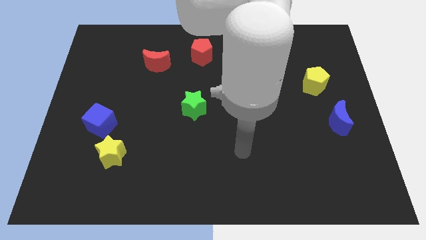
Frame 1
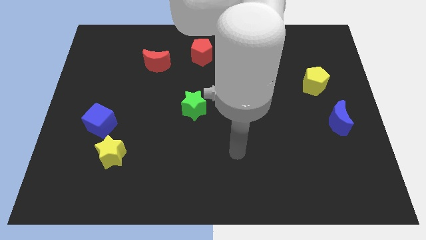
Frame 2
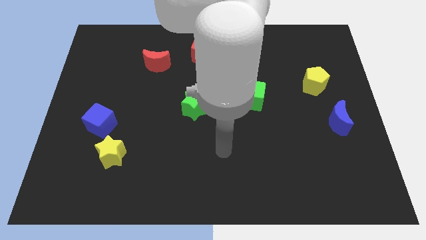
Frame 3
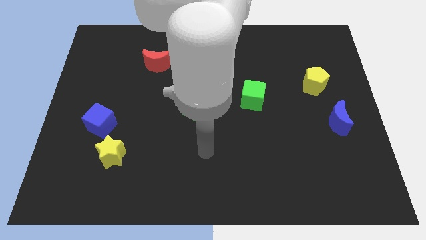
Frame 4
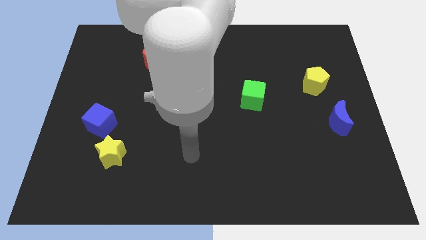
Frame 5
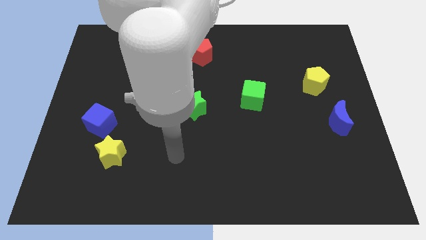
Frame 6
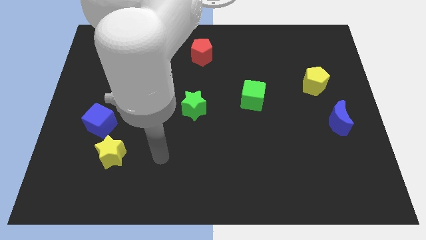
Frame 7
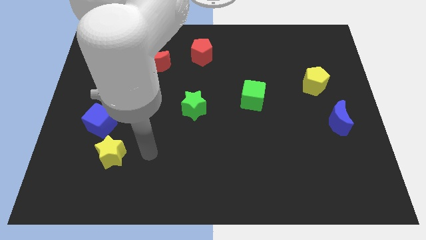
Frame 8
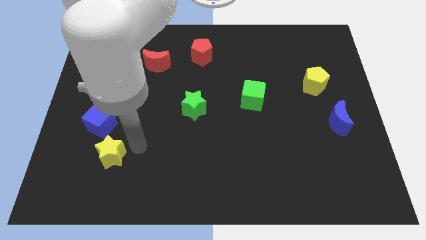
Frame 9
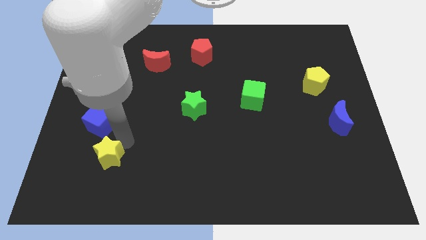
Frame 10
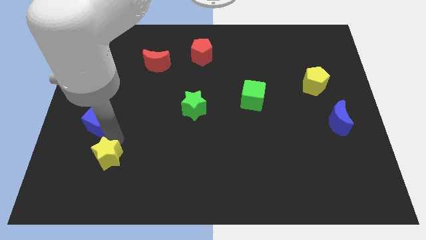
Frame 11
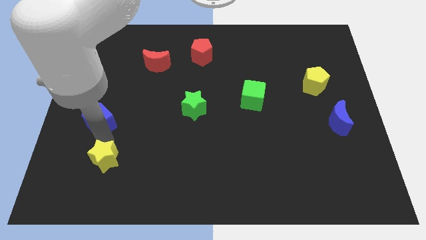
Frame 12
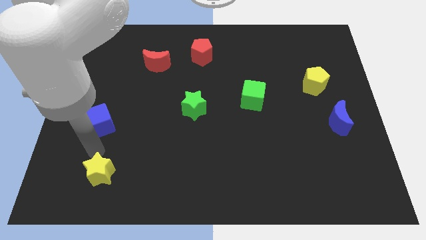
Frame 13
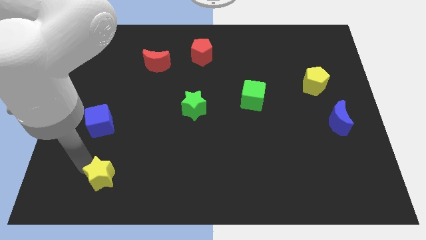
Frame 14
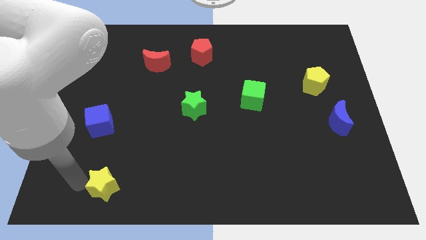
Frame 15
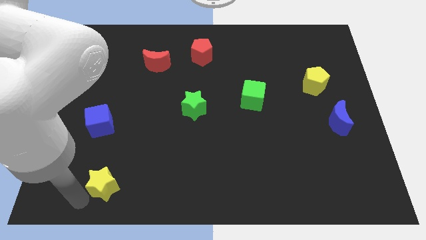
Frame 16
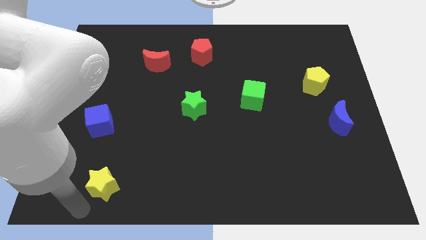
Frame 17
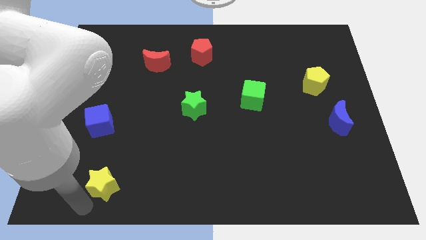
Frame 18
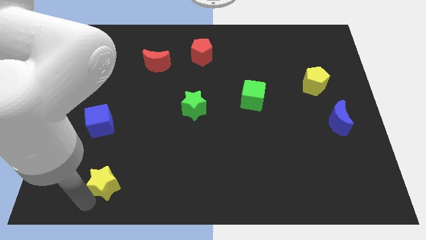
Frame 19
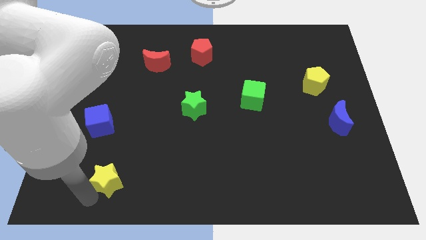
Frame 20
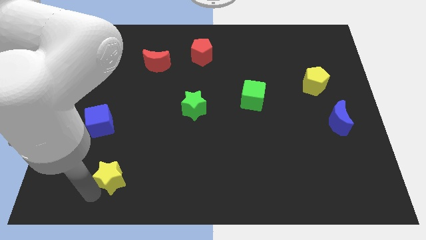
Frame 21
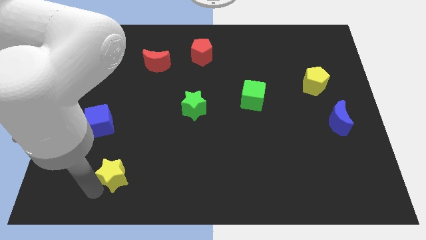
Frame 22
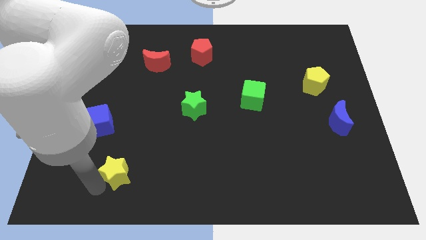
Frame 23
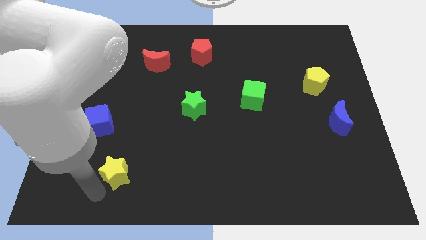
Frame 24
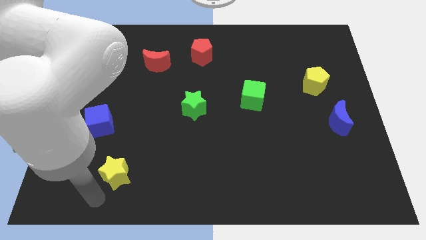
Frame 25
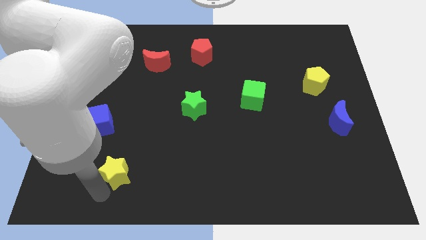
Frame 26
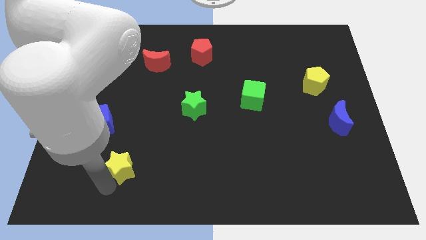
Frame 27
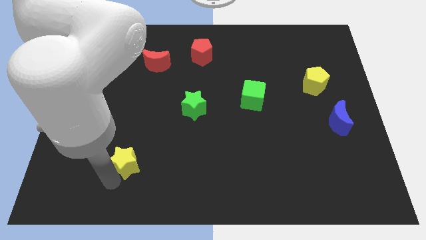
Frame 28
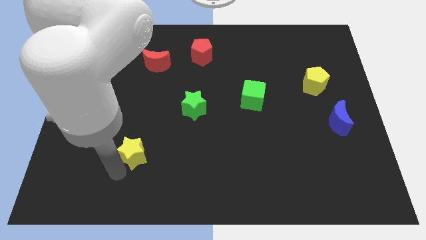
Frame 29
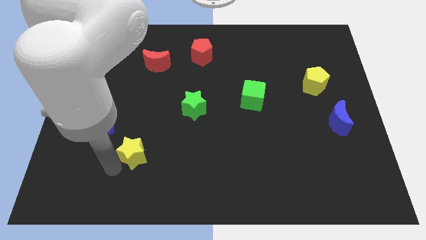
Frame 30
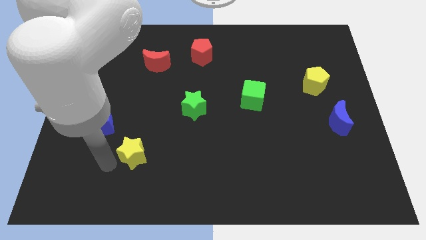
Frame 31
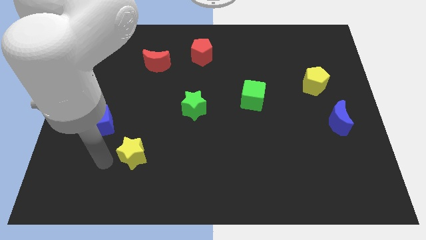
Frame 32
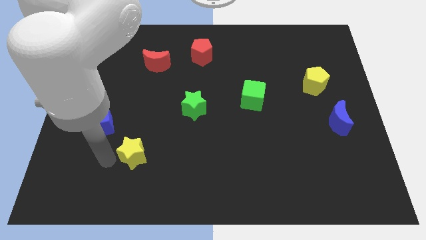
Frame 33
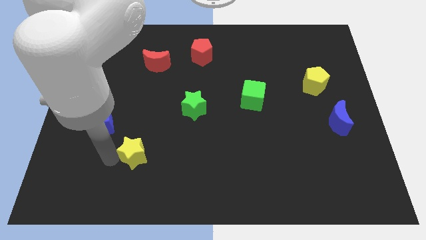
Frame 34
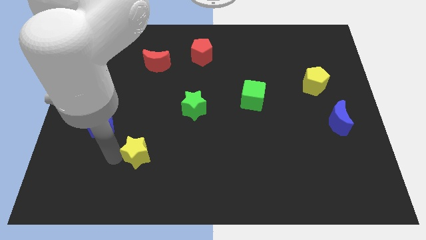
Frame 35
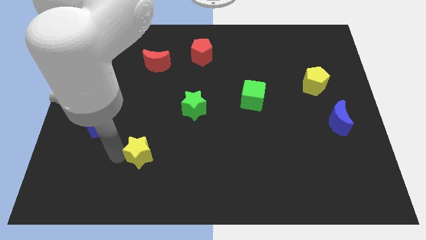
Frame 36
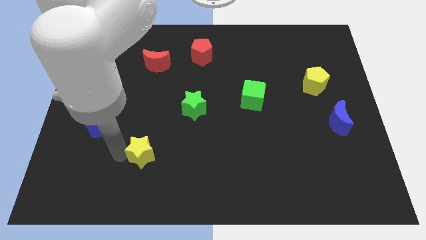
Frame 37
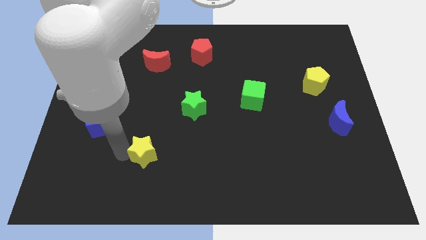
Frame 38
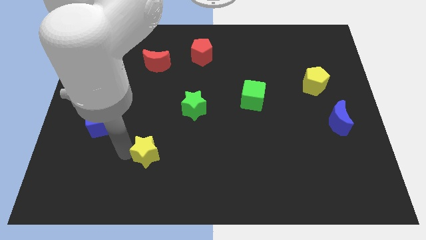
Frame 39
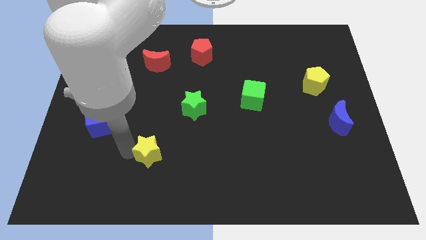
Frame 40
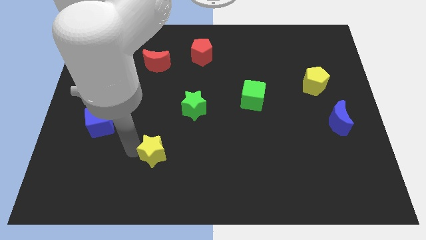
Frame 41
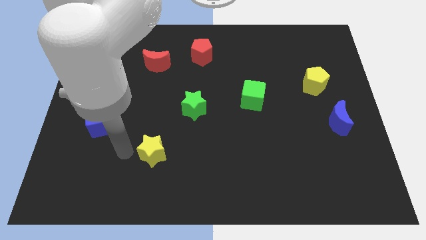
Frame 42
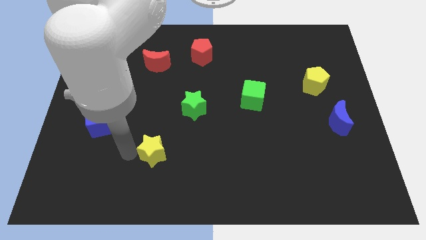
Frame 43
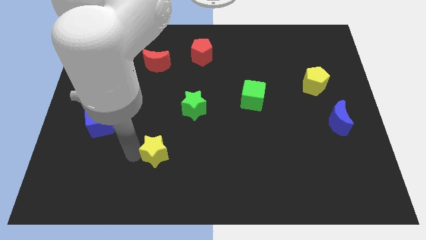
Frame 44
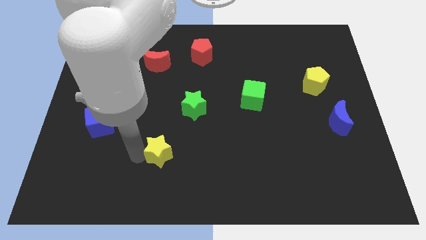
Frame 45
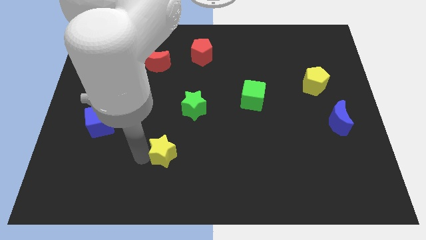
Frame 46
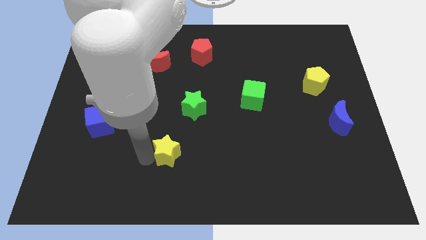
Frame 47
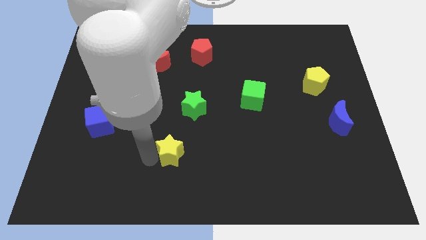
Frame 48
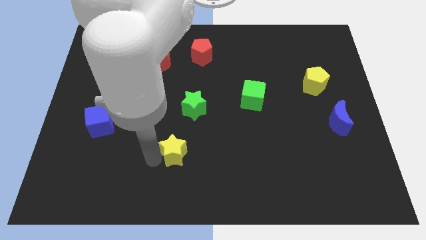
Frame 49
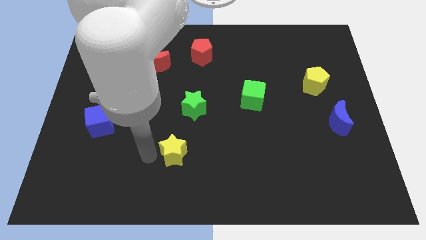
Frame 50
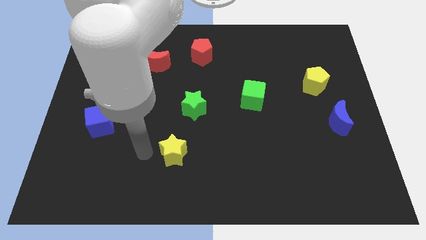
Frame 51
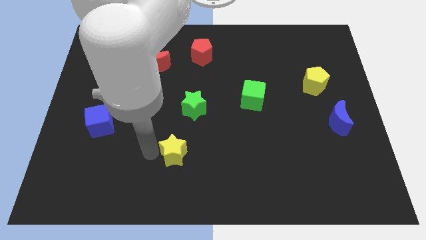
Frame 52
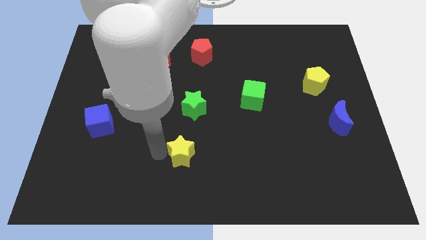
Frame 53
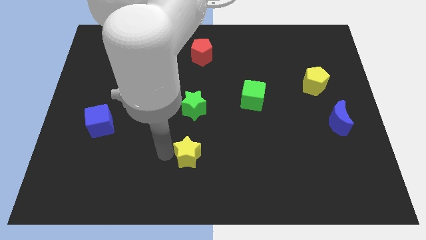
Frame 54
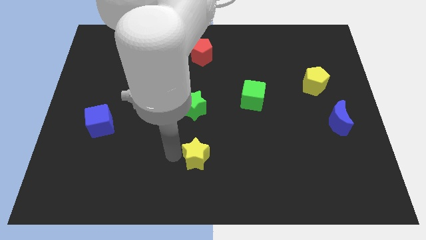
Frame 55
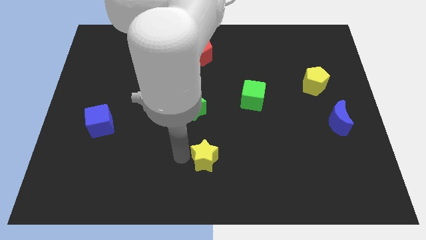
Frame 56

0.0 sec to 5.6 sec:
push the yellow star to the right

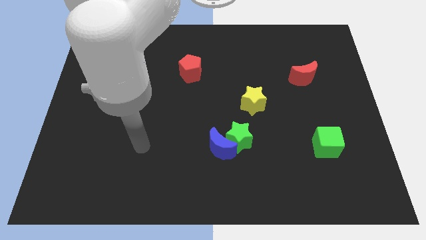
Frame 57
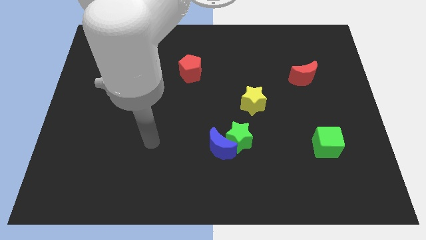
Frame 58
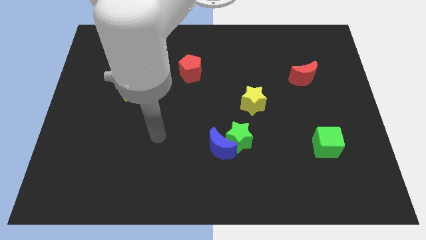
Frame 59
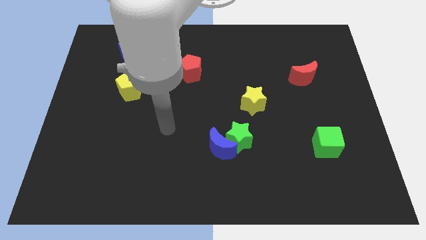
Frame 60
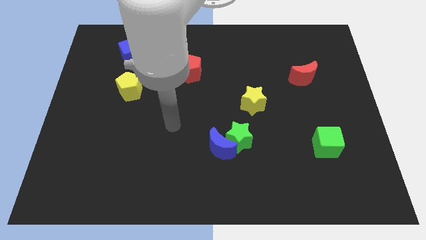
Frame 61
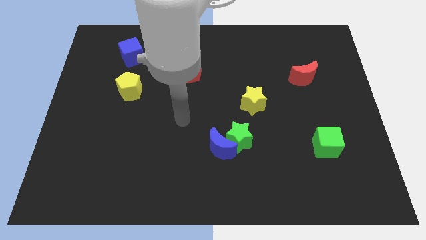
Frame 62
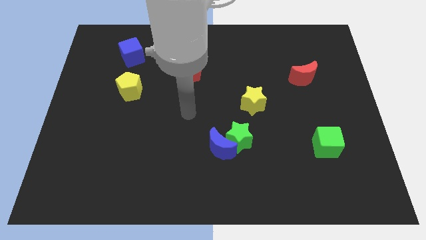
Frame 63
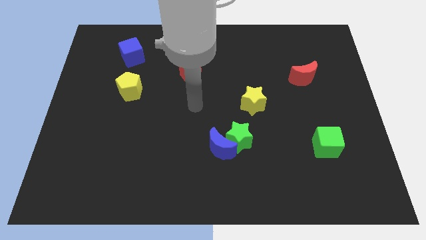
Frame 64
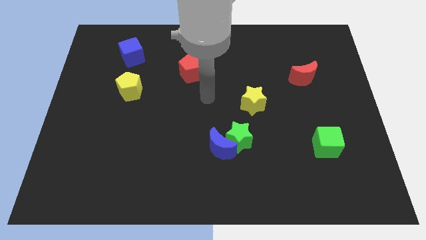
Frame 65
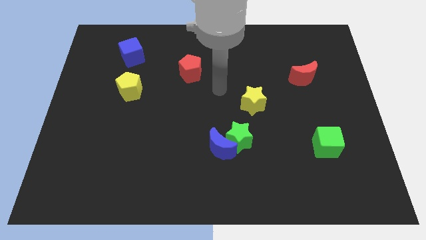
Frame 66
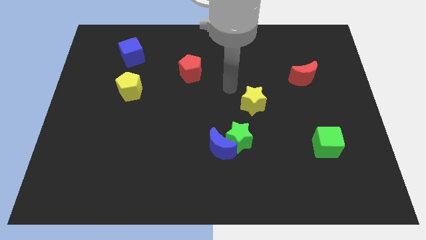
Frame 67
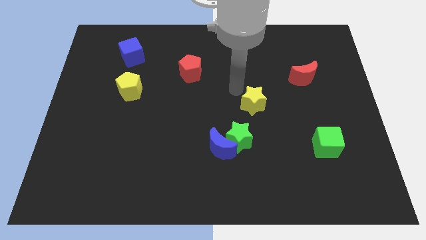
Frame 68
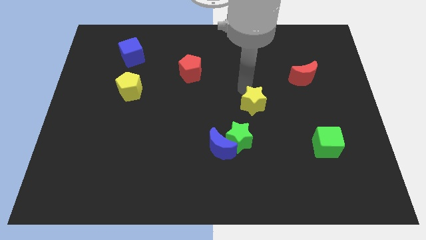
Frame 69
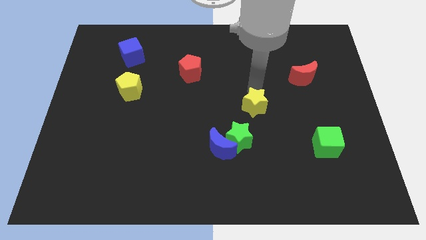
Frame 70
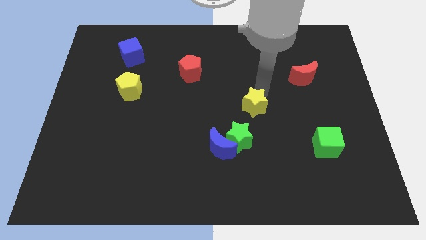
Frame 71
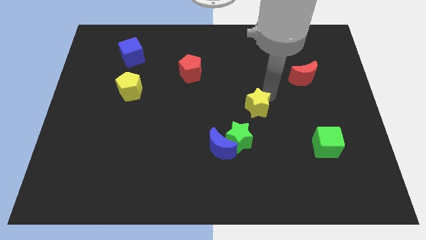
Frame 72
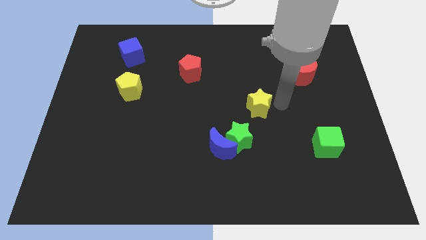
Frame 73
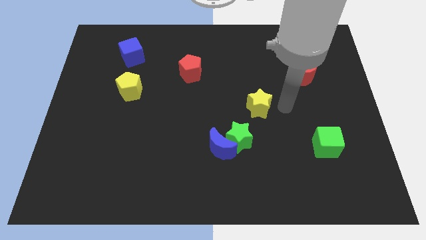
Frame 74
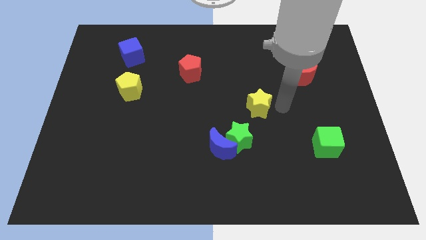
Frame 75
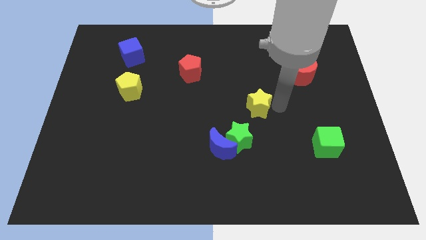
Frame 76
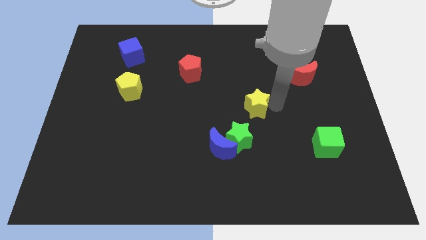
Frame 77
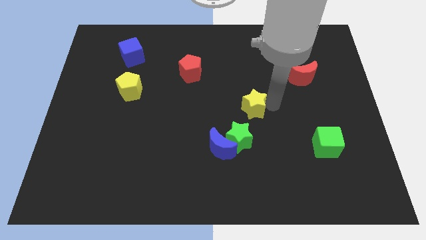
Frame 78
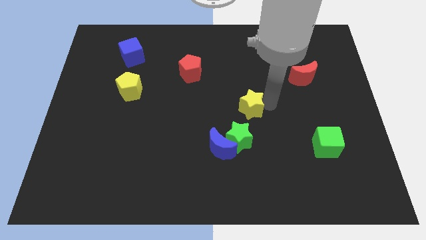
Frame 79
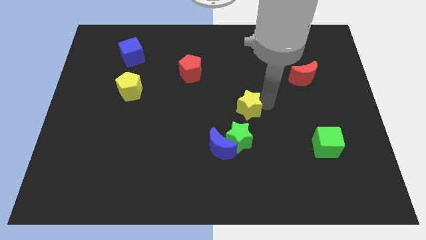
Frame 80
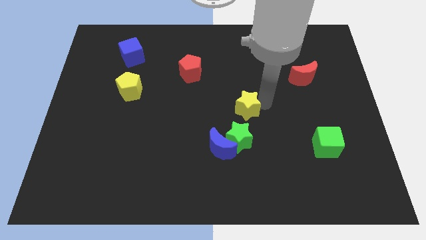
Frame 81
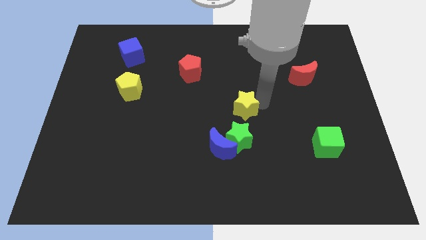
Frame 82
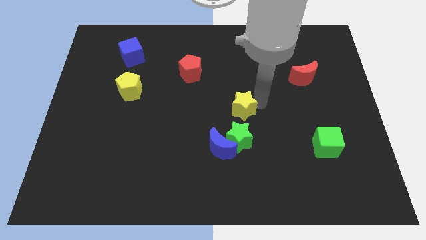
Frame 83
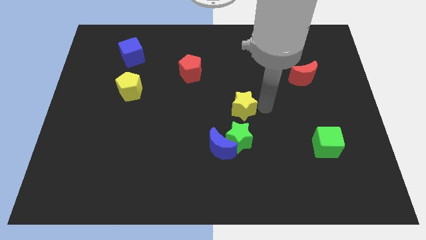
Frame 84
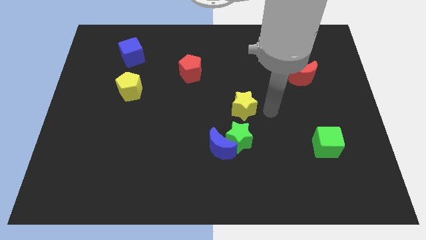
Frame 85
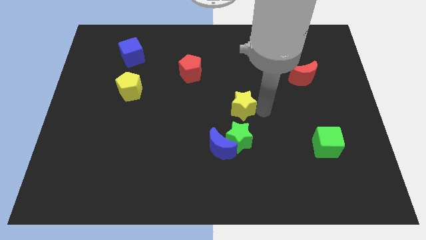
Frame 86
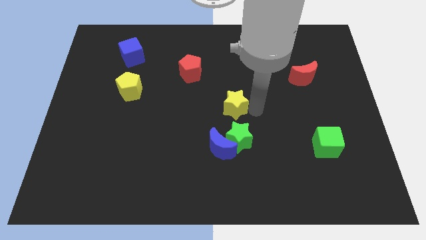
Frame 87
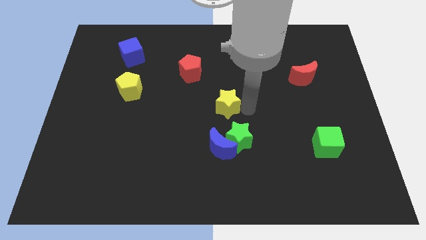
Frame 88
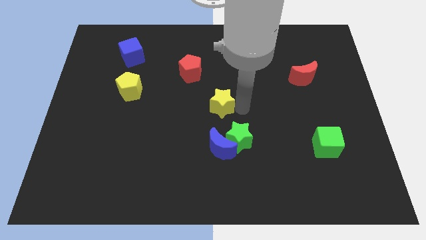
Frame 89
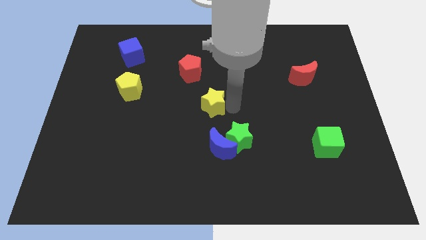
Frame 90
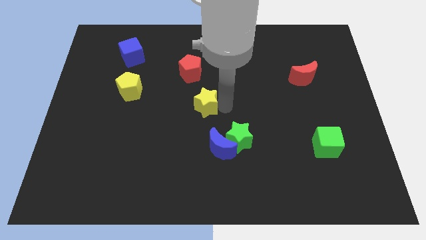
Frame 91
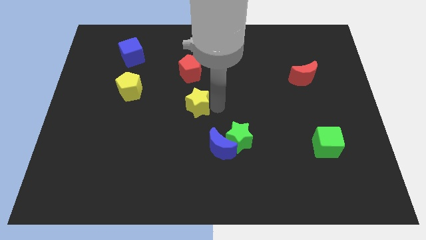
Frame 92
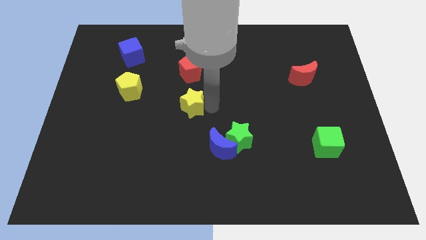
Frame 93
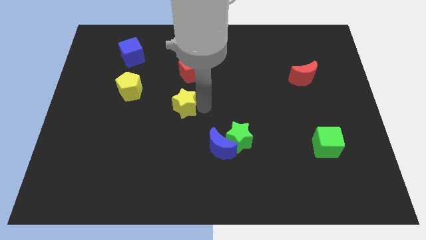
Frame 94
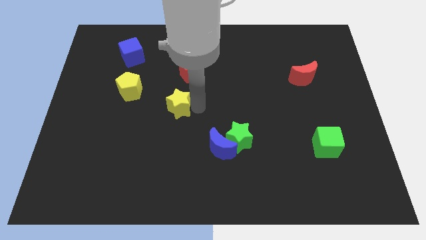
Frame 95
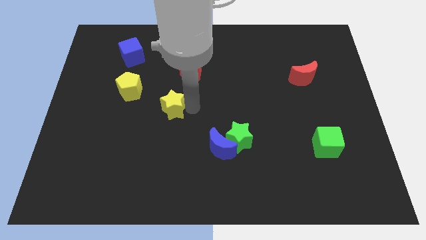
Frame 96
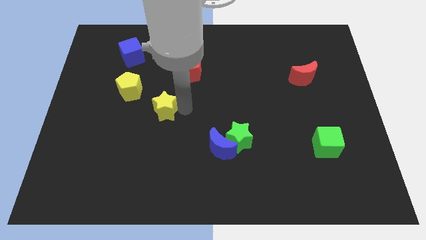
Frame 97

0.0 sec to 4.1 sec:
push the yellow star left
